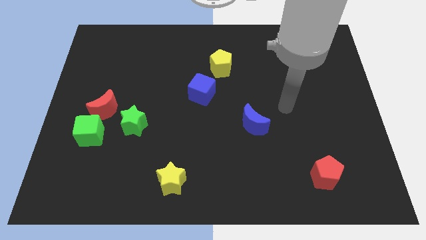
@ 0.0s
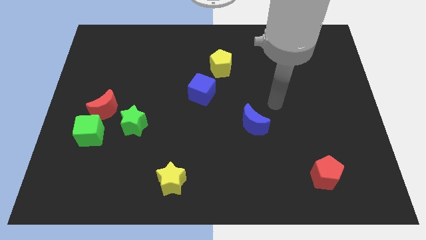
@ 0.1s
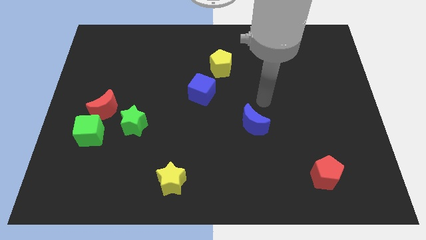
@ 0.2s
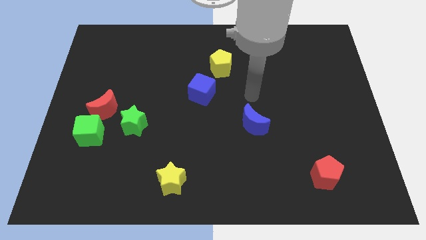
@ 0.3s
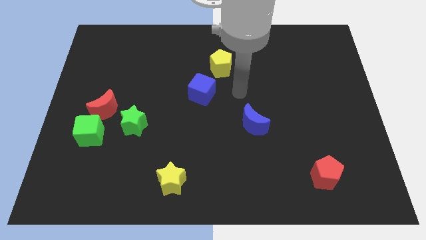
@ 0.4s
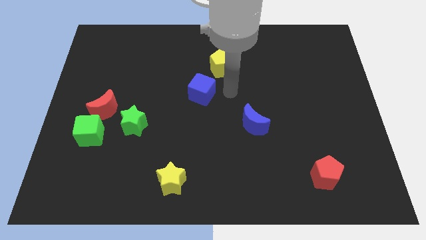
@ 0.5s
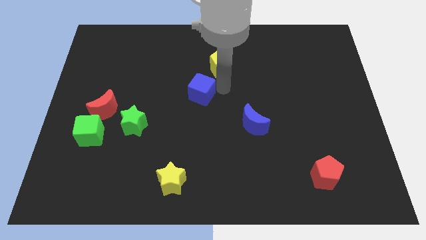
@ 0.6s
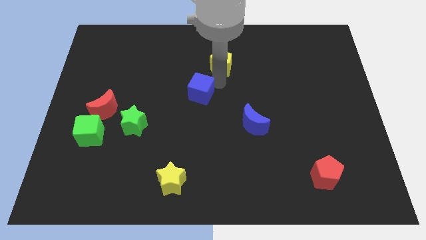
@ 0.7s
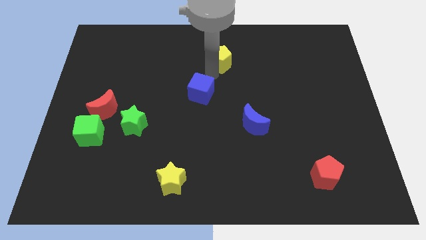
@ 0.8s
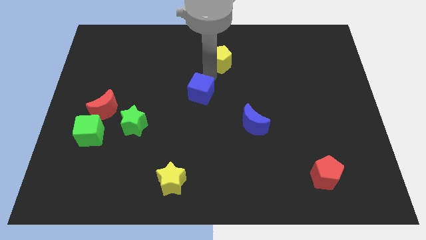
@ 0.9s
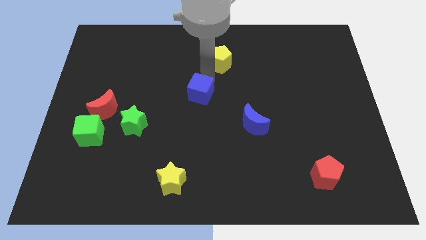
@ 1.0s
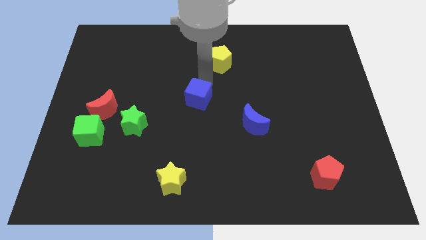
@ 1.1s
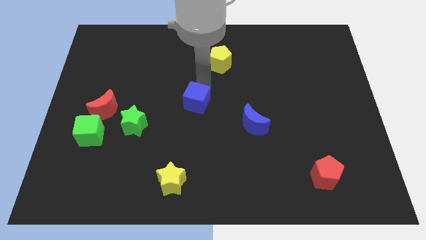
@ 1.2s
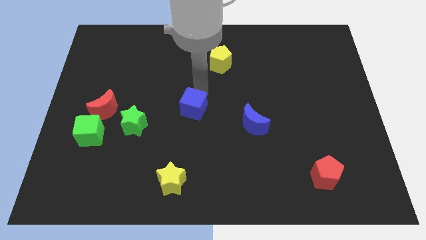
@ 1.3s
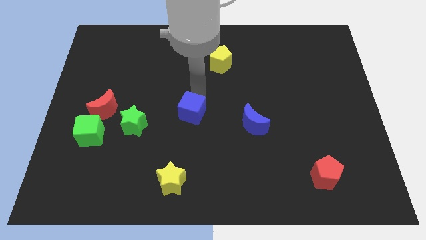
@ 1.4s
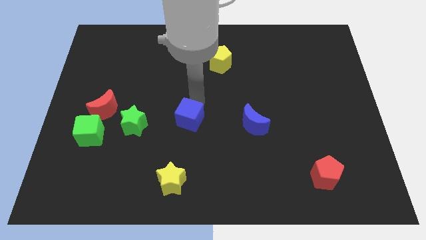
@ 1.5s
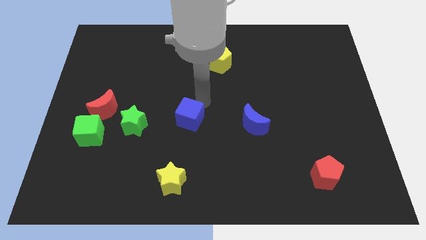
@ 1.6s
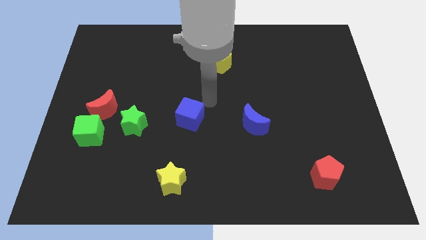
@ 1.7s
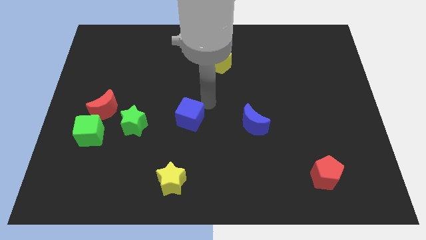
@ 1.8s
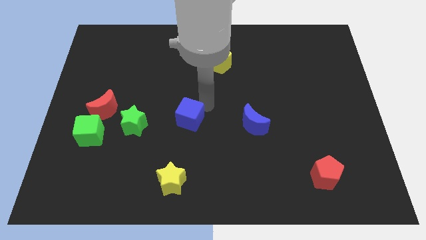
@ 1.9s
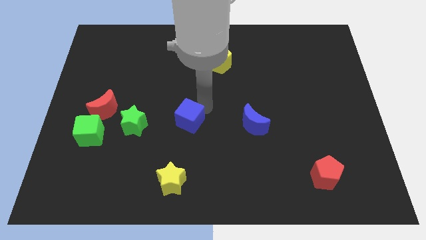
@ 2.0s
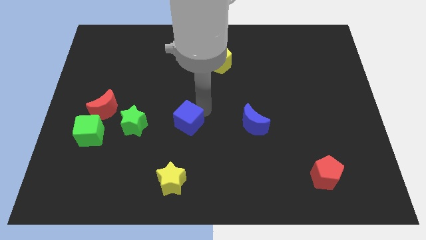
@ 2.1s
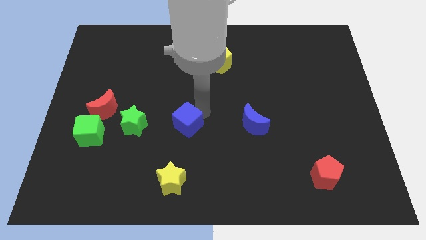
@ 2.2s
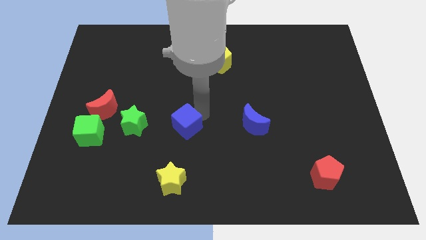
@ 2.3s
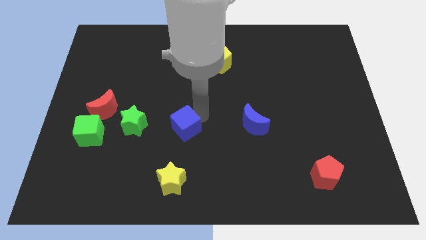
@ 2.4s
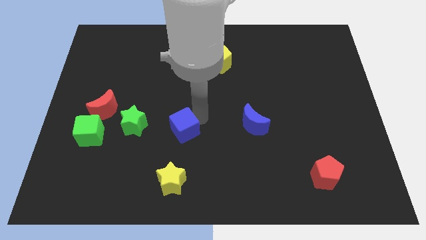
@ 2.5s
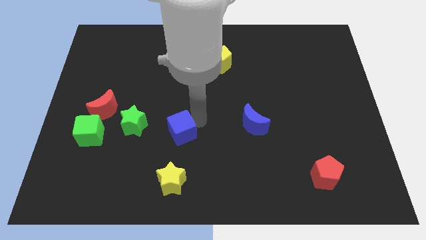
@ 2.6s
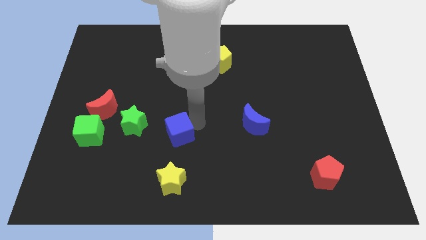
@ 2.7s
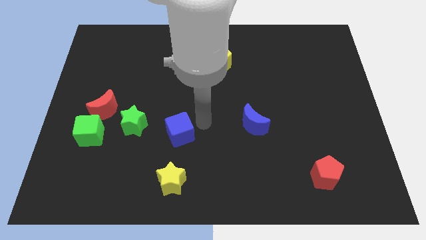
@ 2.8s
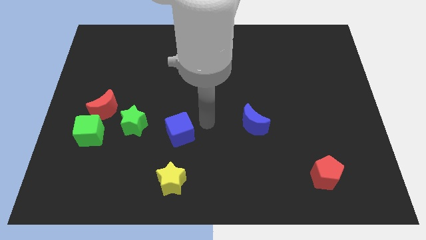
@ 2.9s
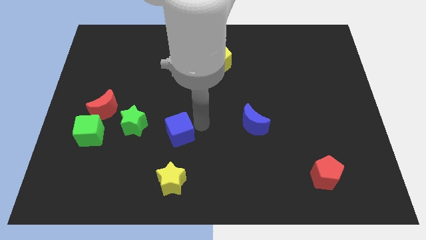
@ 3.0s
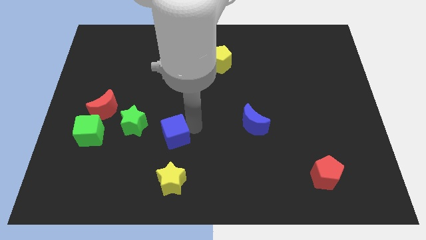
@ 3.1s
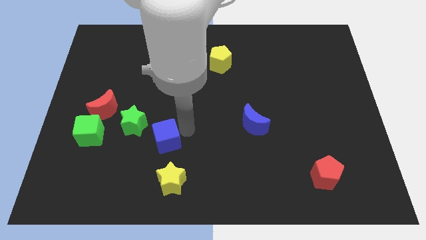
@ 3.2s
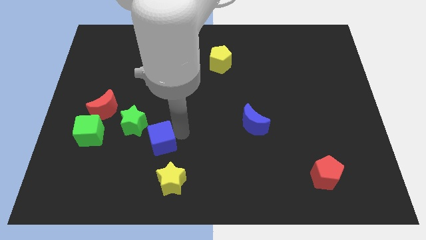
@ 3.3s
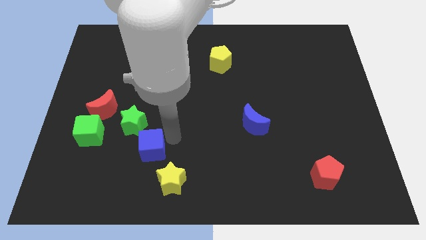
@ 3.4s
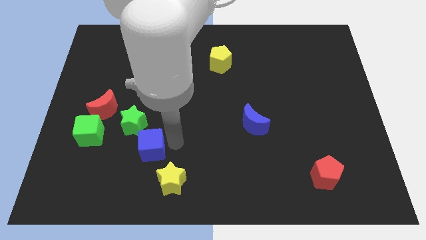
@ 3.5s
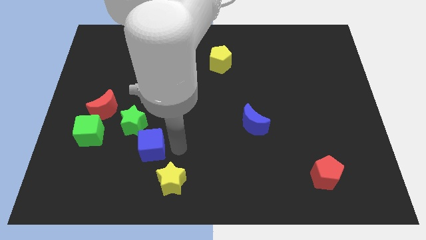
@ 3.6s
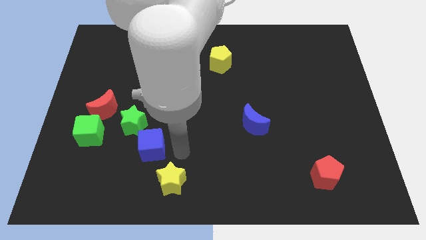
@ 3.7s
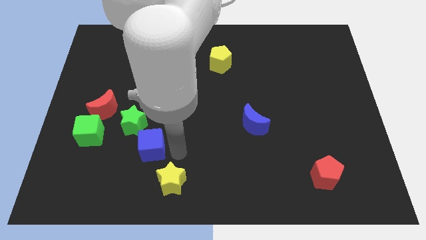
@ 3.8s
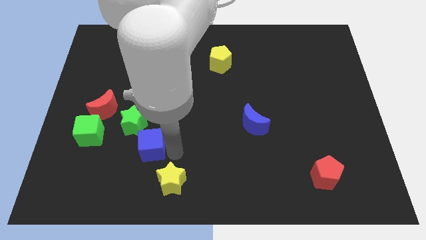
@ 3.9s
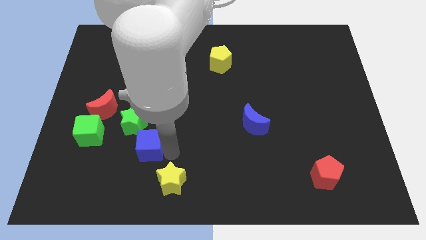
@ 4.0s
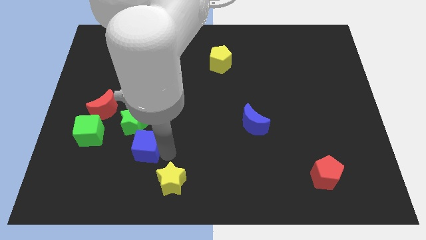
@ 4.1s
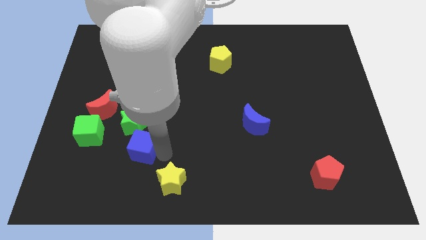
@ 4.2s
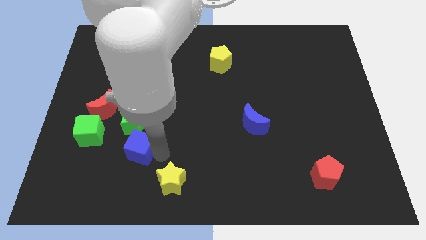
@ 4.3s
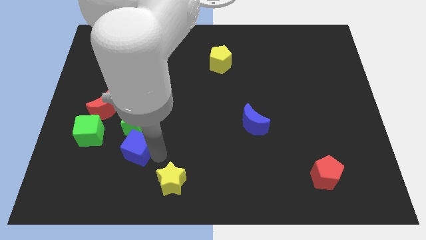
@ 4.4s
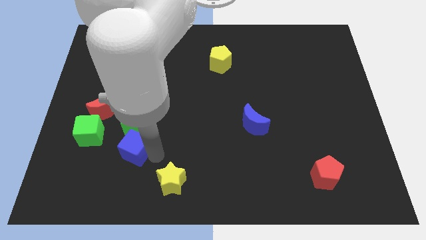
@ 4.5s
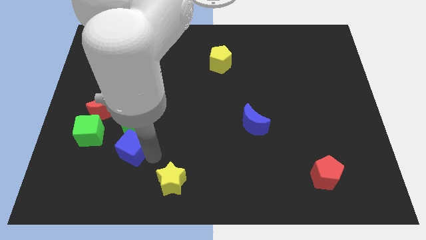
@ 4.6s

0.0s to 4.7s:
slide the blue cube to the bottom right side of the green cube

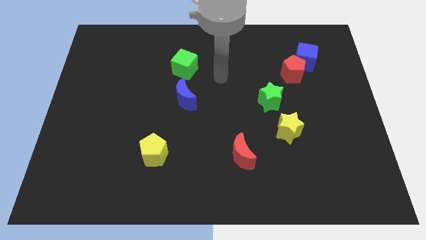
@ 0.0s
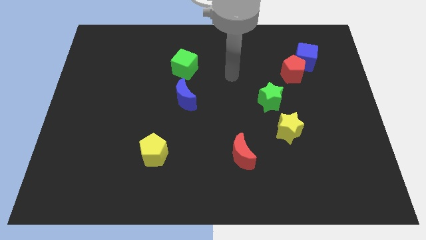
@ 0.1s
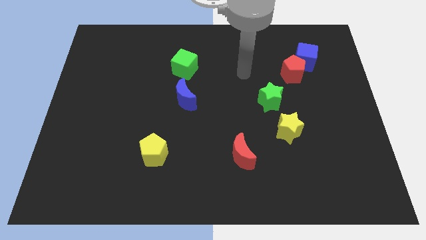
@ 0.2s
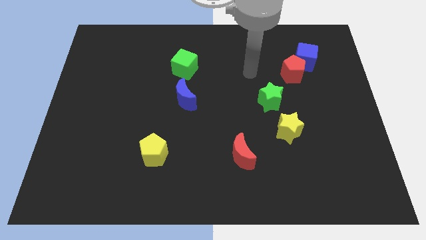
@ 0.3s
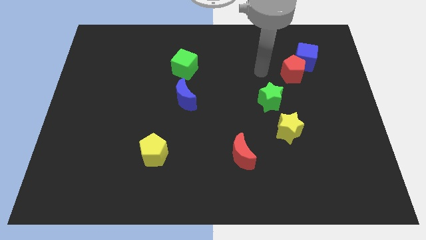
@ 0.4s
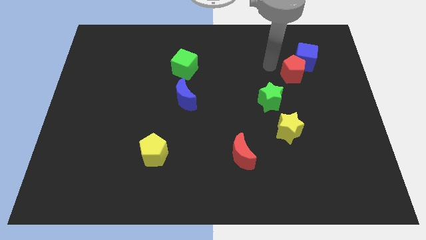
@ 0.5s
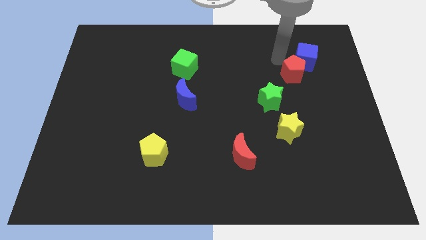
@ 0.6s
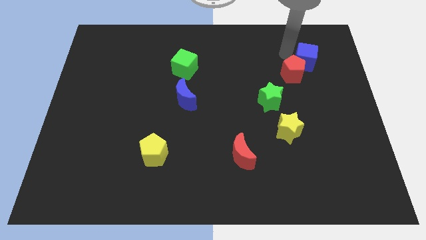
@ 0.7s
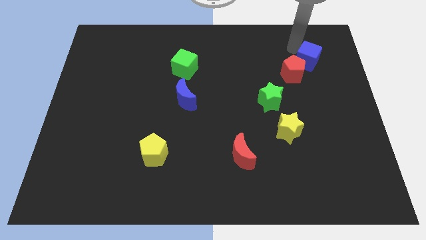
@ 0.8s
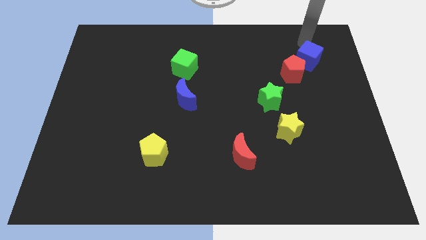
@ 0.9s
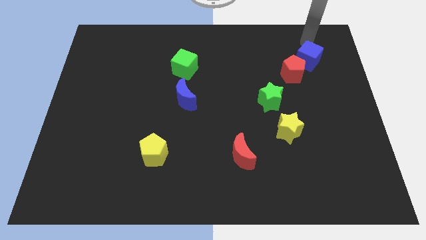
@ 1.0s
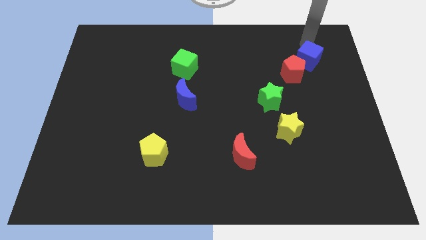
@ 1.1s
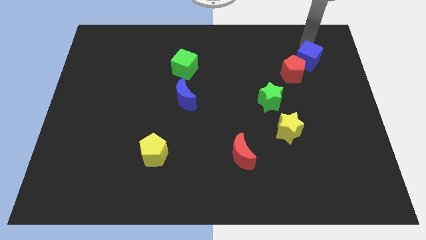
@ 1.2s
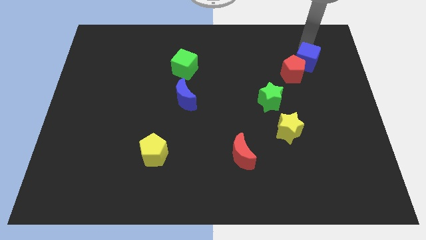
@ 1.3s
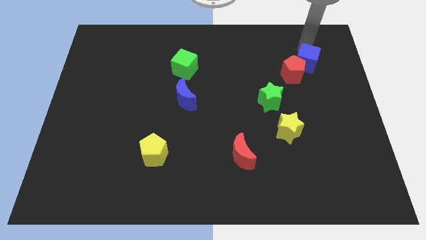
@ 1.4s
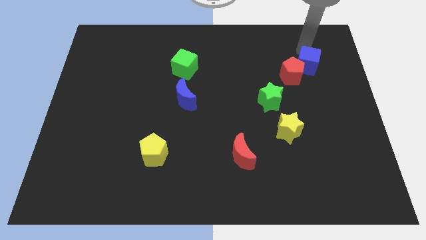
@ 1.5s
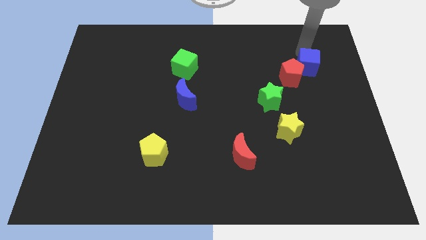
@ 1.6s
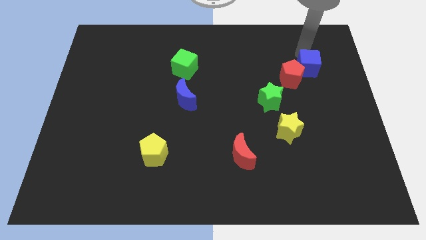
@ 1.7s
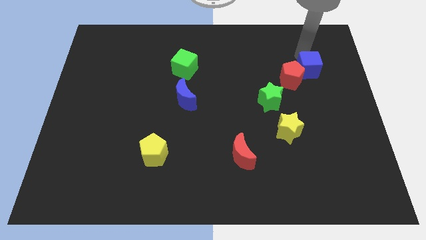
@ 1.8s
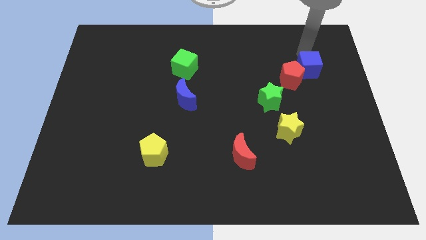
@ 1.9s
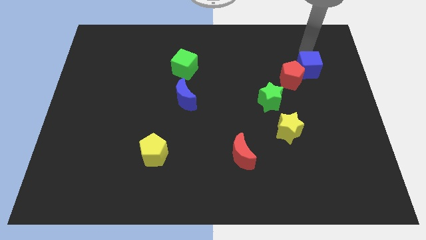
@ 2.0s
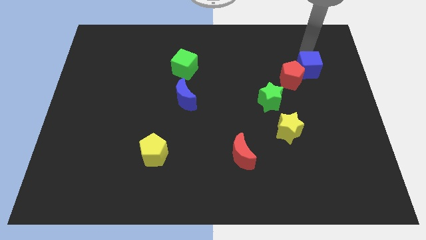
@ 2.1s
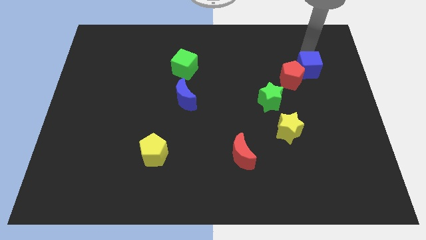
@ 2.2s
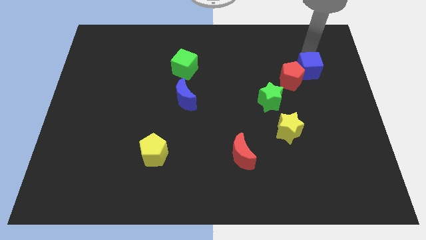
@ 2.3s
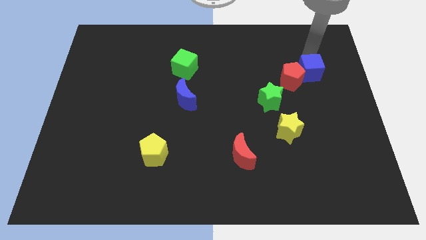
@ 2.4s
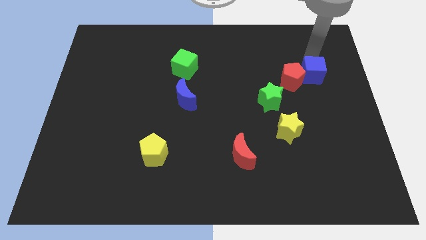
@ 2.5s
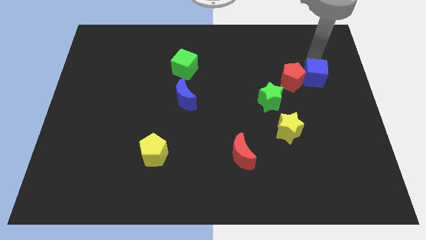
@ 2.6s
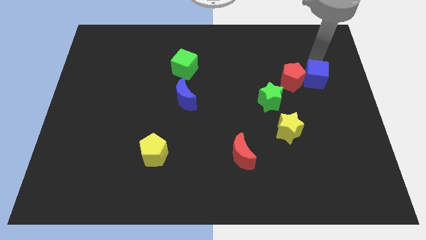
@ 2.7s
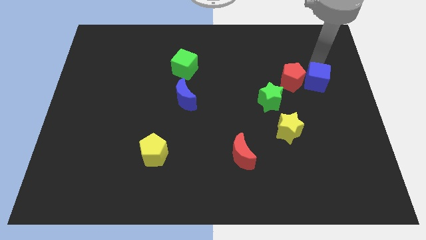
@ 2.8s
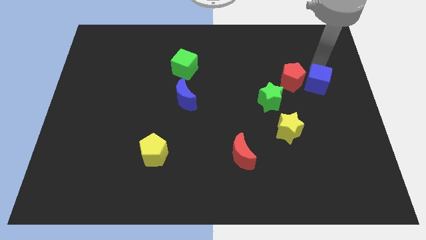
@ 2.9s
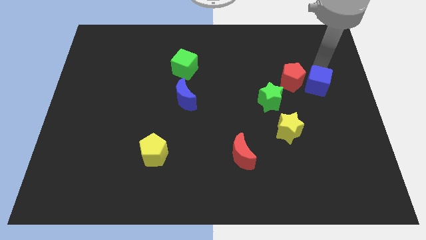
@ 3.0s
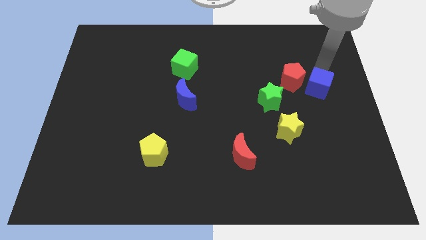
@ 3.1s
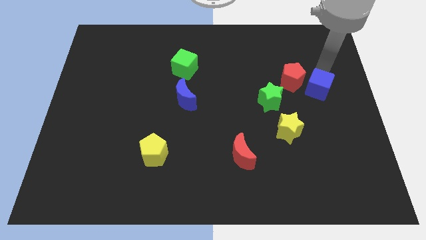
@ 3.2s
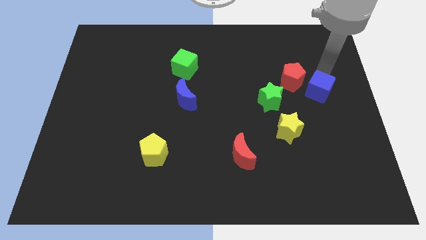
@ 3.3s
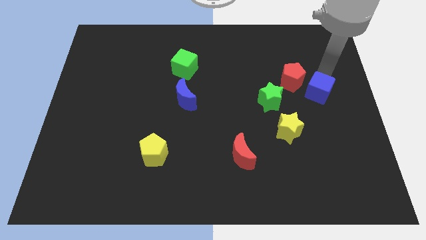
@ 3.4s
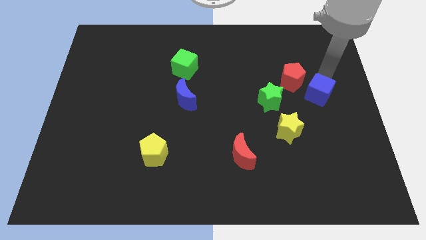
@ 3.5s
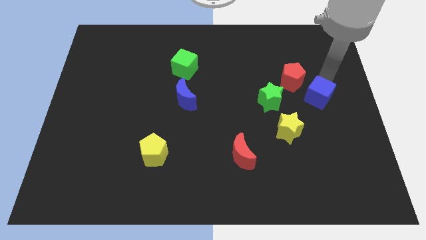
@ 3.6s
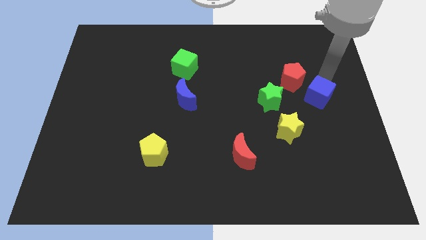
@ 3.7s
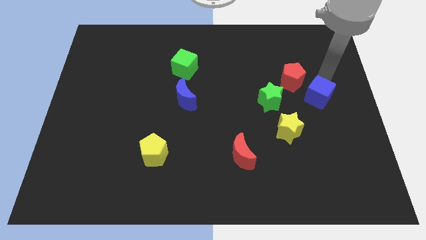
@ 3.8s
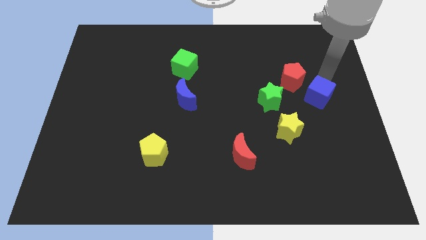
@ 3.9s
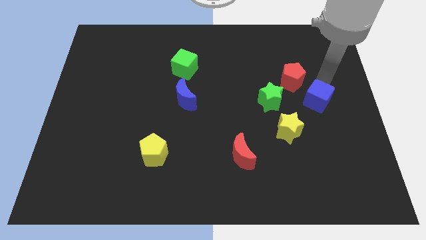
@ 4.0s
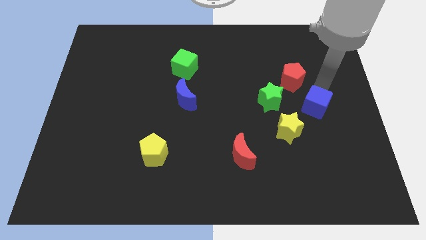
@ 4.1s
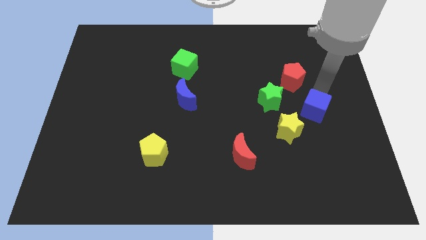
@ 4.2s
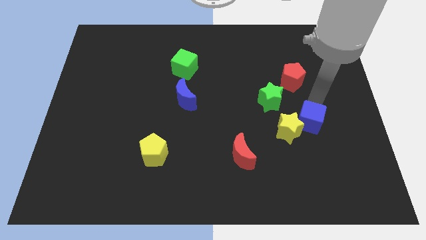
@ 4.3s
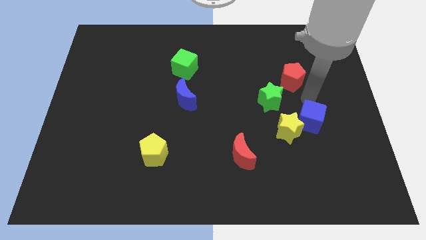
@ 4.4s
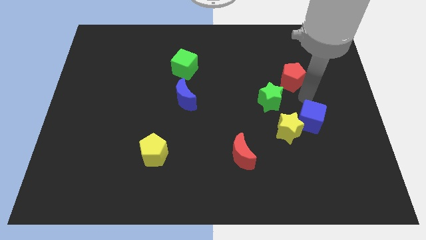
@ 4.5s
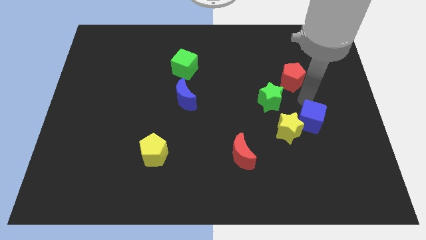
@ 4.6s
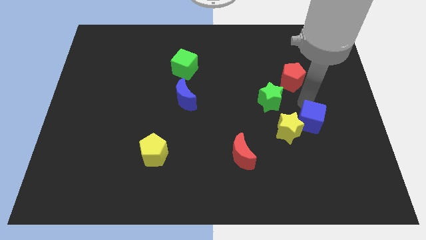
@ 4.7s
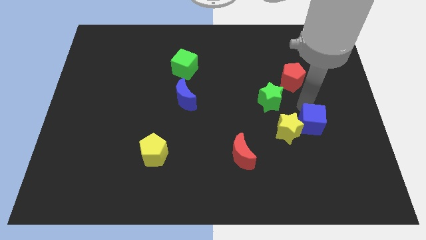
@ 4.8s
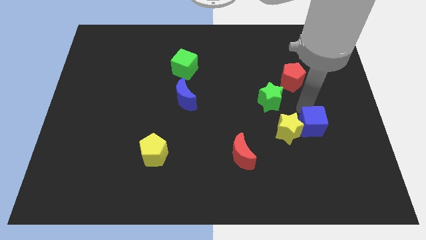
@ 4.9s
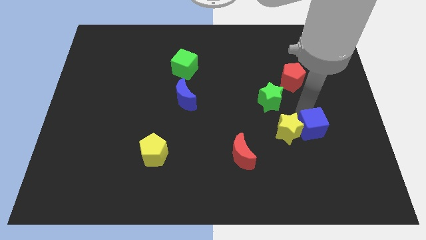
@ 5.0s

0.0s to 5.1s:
put the blue cube to the bottom right side of the yellow star
